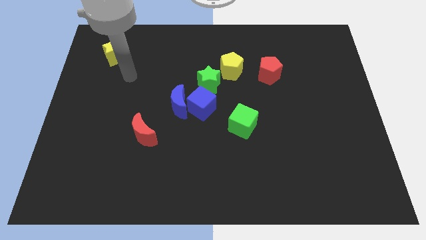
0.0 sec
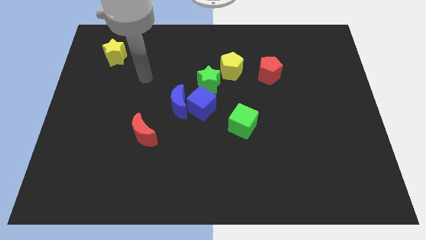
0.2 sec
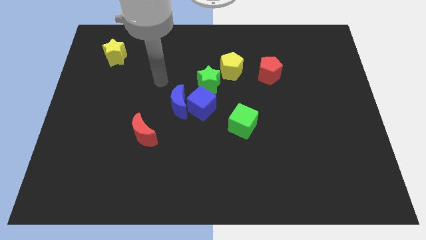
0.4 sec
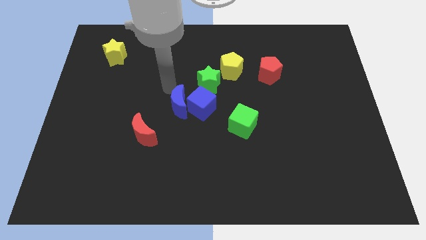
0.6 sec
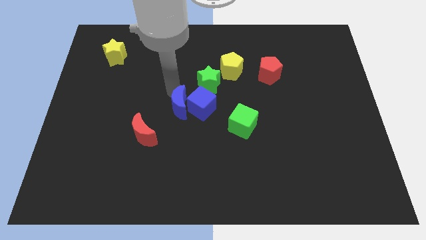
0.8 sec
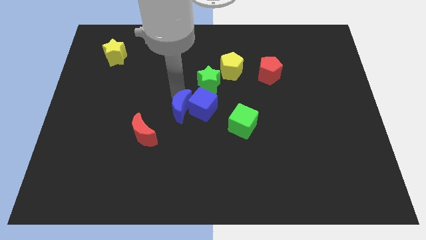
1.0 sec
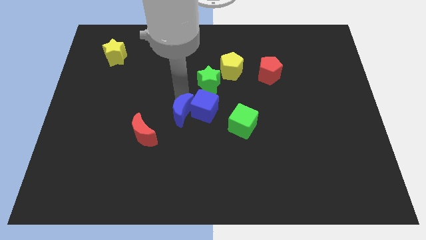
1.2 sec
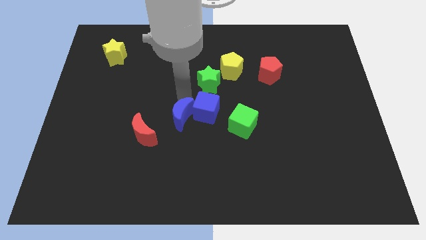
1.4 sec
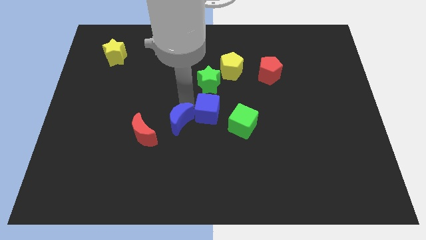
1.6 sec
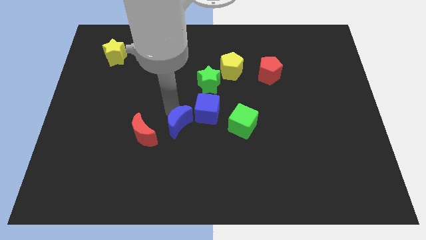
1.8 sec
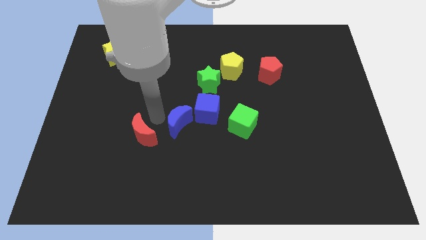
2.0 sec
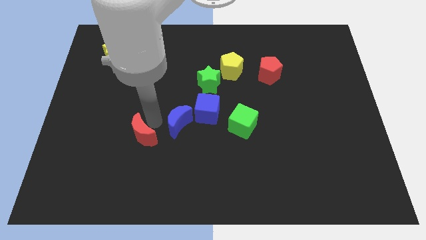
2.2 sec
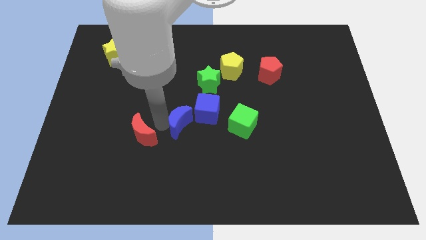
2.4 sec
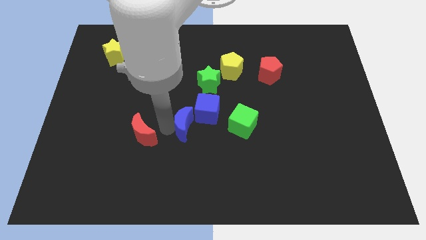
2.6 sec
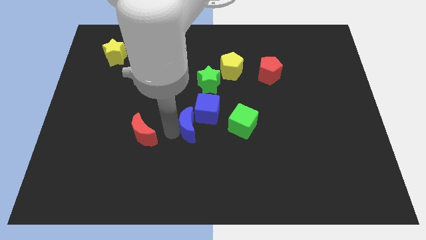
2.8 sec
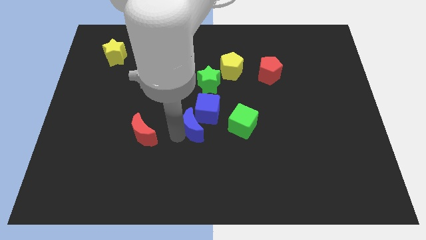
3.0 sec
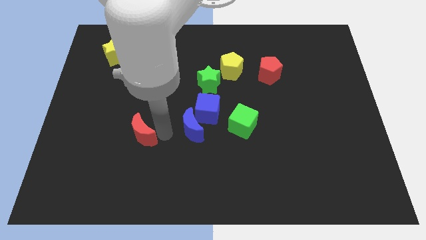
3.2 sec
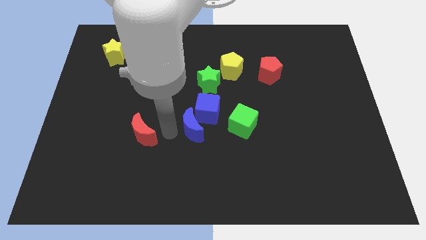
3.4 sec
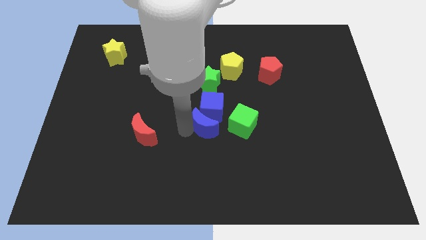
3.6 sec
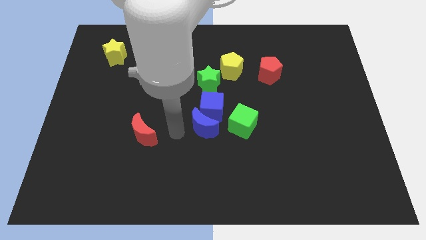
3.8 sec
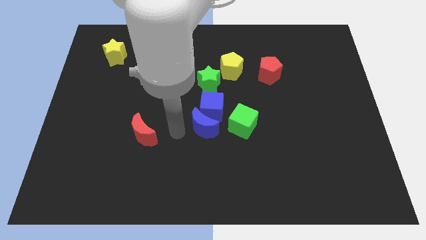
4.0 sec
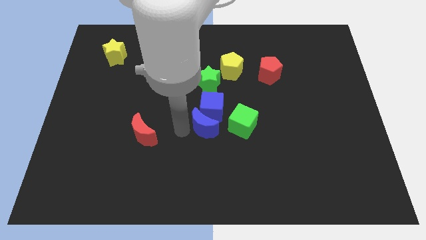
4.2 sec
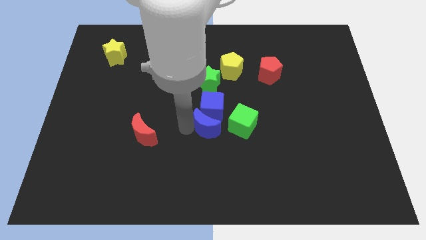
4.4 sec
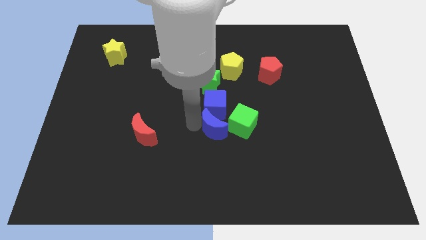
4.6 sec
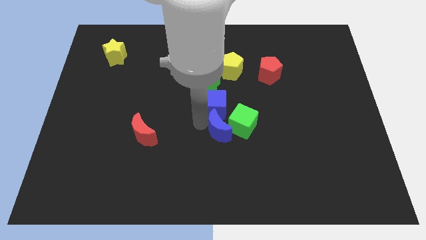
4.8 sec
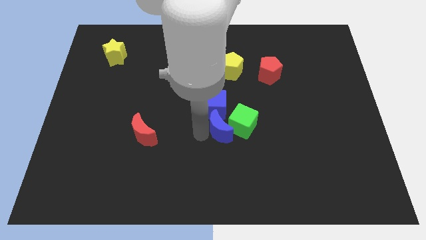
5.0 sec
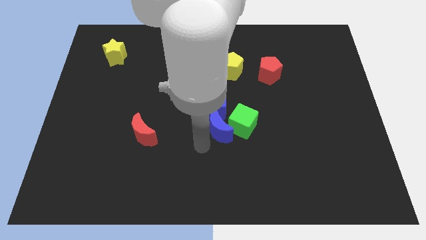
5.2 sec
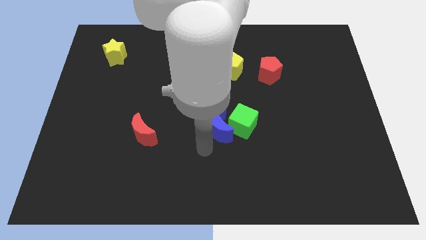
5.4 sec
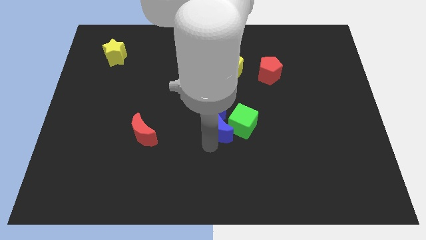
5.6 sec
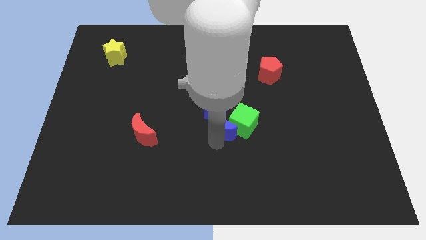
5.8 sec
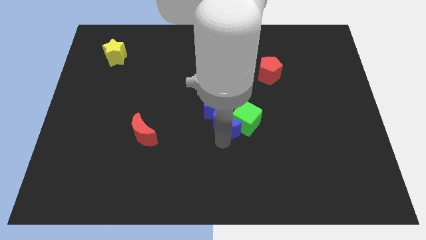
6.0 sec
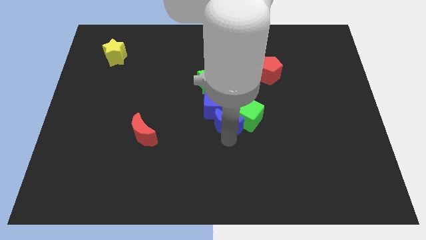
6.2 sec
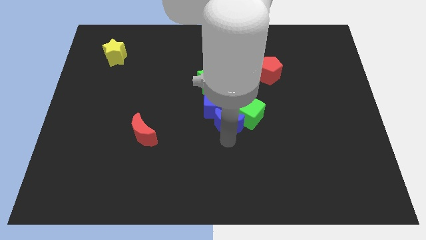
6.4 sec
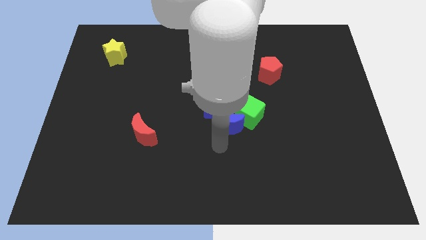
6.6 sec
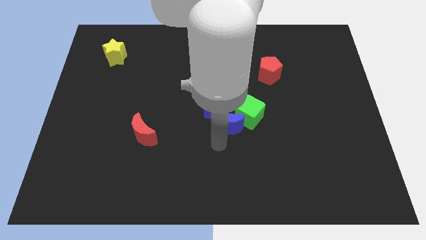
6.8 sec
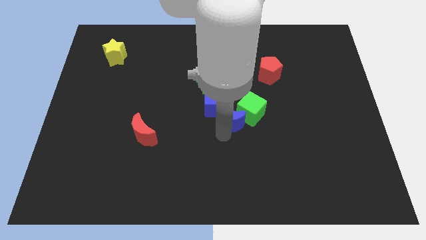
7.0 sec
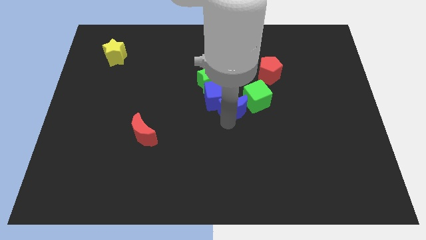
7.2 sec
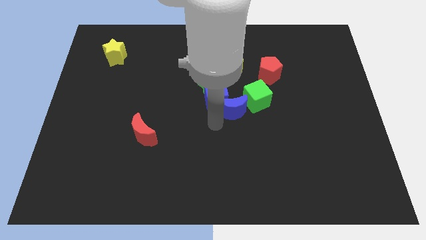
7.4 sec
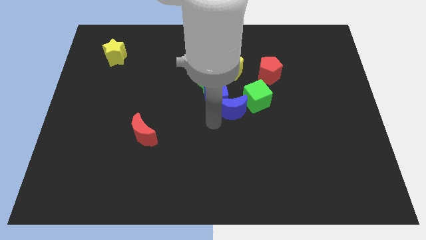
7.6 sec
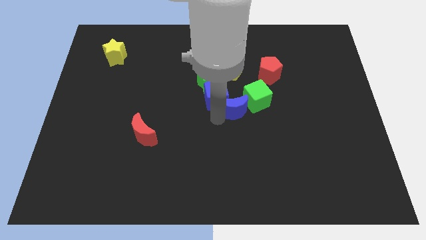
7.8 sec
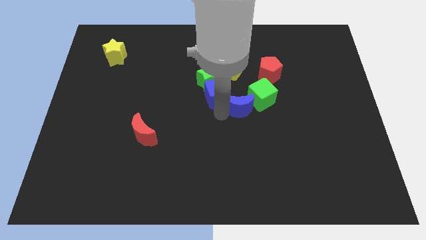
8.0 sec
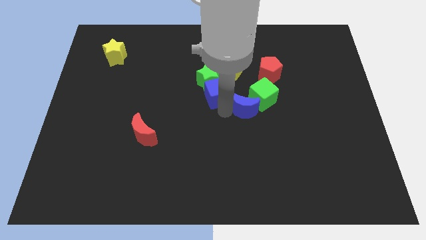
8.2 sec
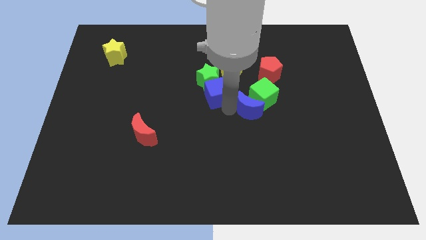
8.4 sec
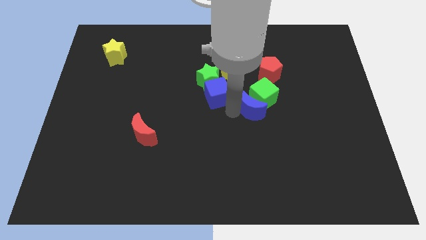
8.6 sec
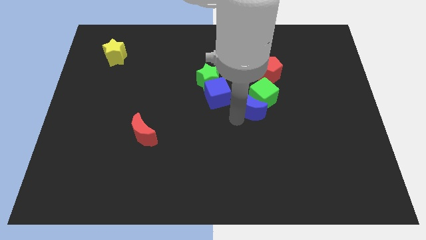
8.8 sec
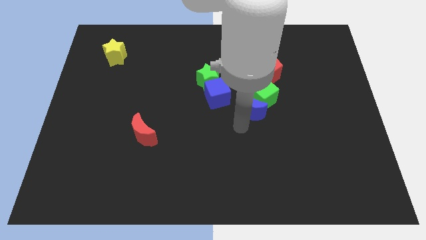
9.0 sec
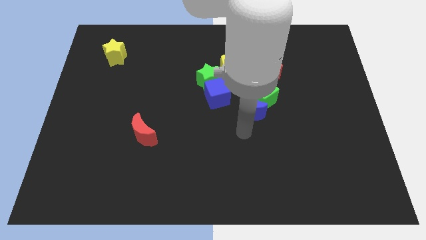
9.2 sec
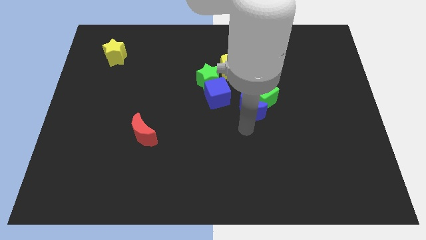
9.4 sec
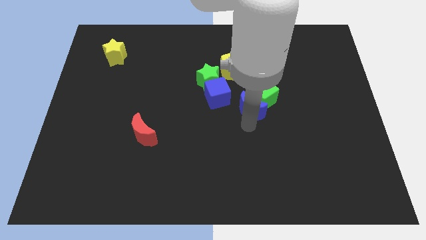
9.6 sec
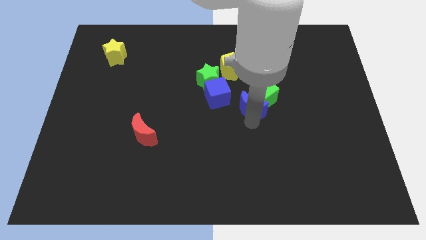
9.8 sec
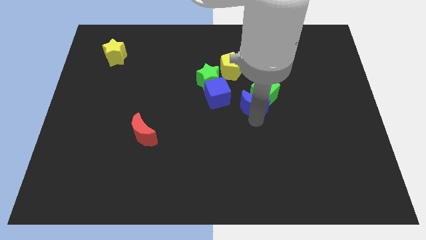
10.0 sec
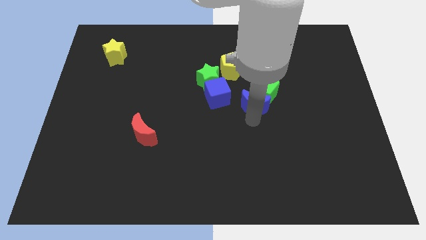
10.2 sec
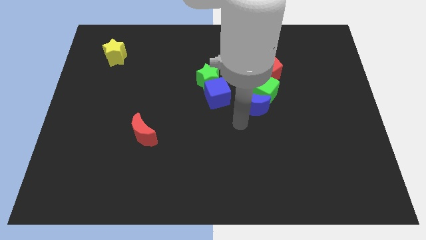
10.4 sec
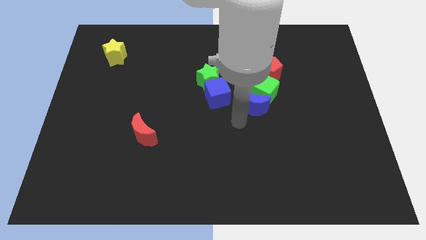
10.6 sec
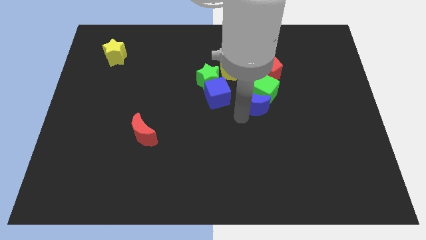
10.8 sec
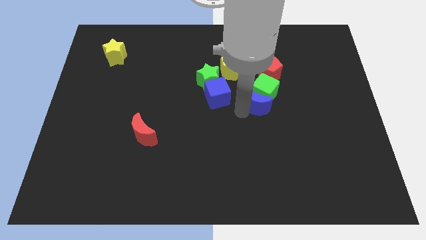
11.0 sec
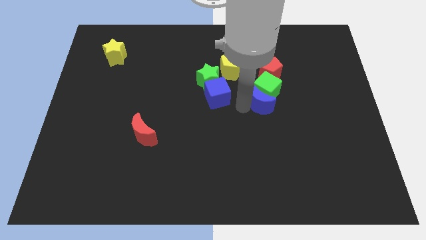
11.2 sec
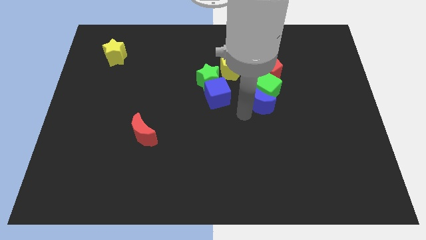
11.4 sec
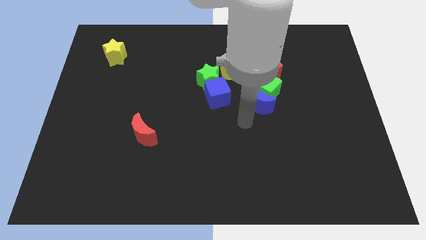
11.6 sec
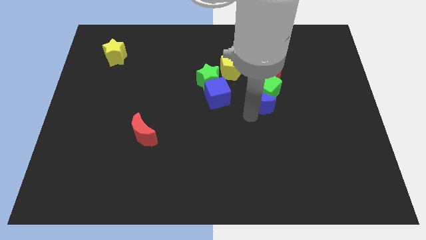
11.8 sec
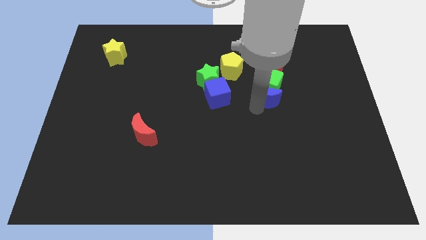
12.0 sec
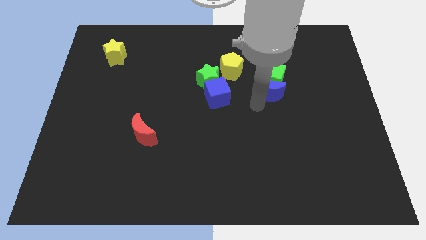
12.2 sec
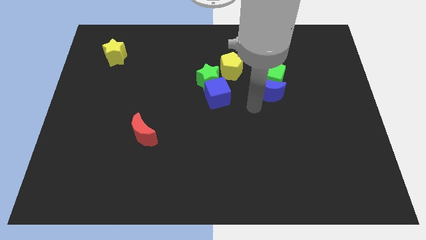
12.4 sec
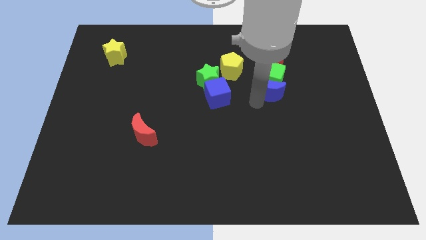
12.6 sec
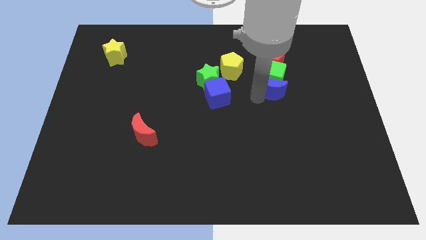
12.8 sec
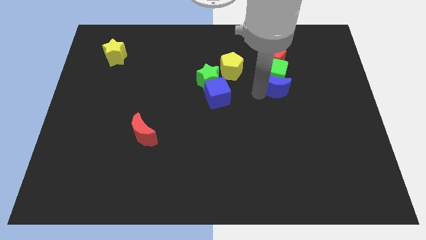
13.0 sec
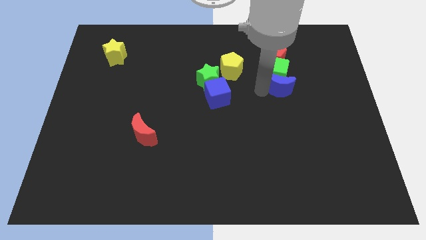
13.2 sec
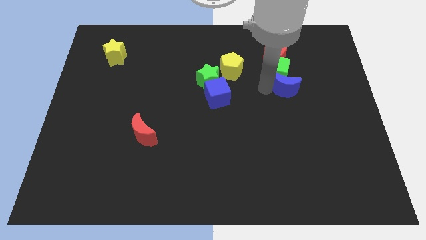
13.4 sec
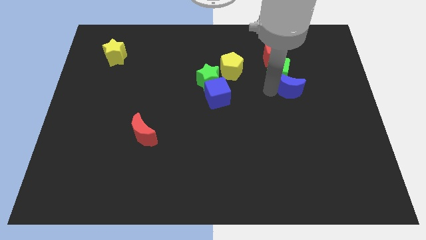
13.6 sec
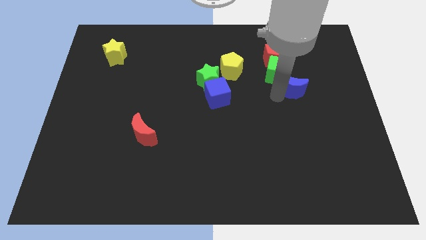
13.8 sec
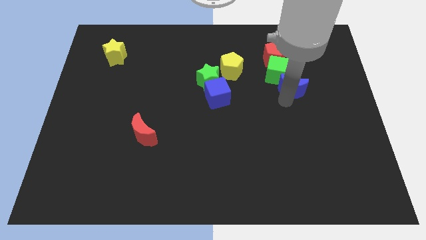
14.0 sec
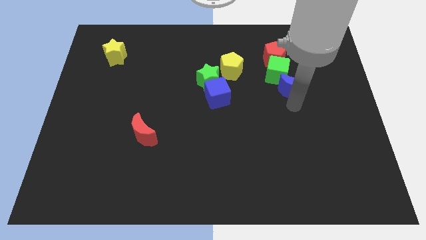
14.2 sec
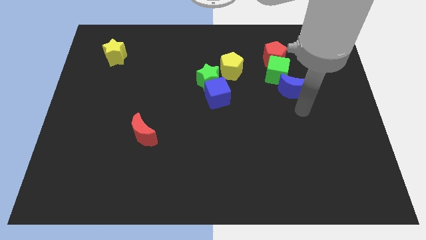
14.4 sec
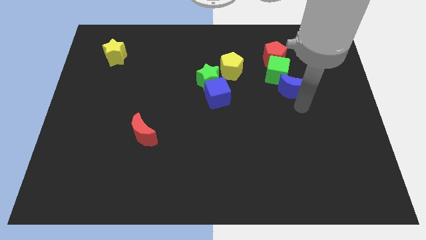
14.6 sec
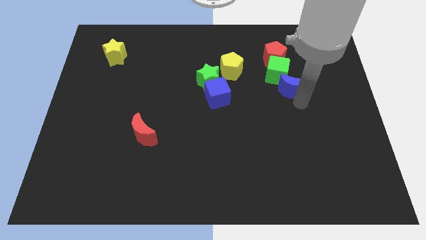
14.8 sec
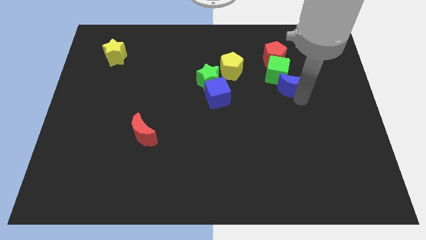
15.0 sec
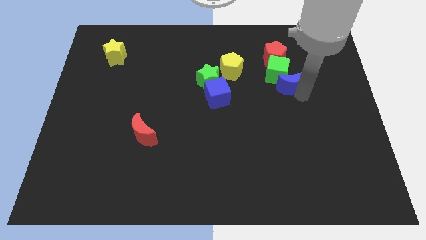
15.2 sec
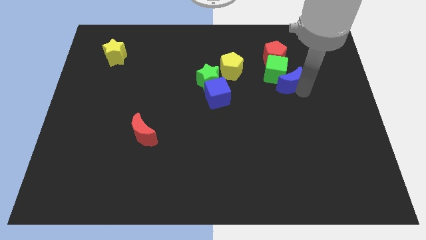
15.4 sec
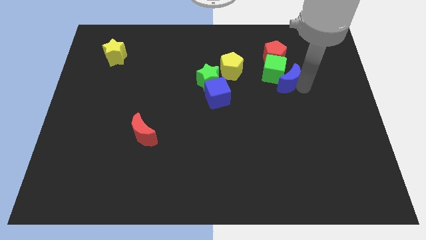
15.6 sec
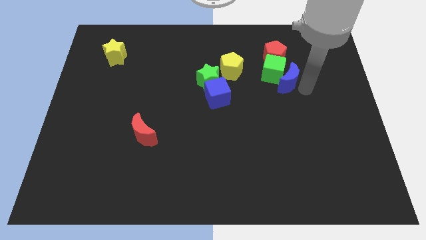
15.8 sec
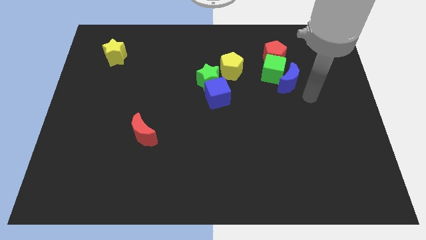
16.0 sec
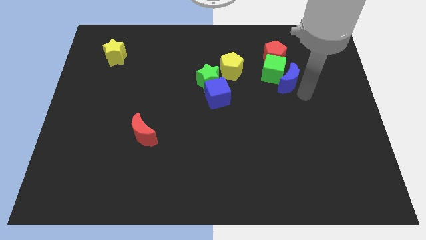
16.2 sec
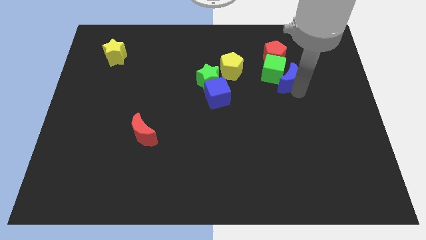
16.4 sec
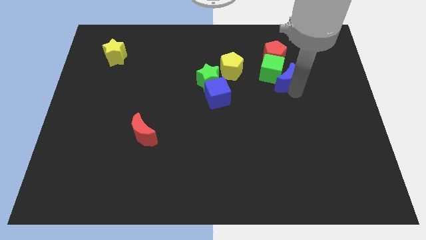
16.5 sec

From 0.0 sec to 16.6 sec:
put the blue moon to the right side of the yellow pentagon
